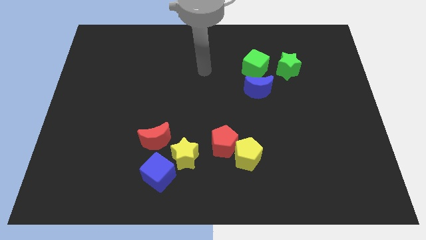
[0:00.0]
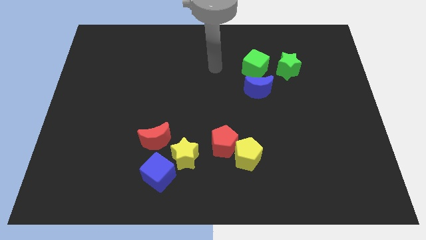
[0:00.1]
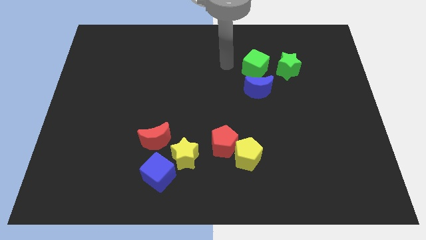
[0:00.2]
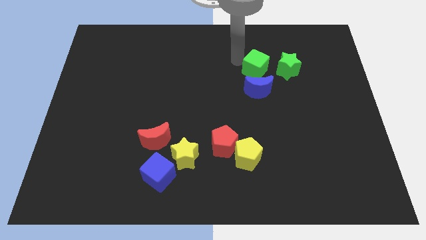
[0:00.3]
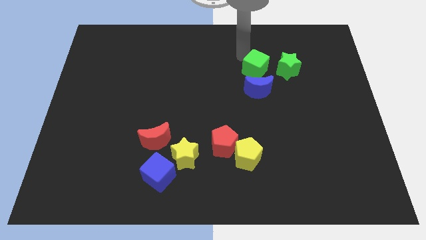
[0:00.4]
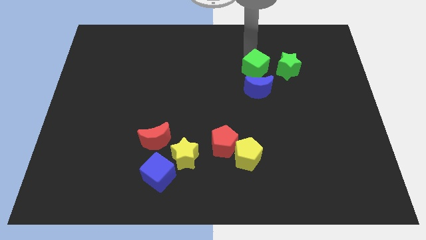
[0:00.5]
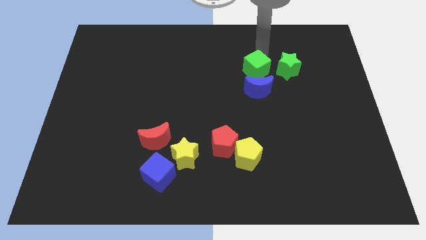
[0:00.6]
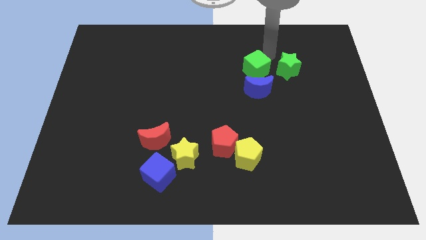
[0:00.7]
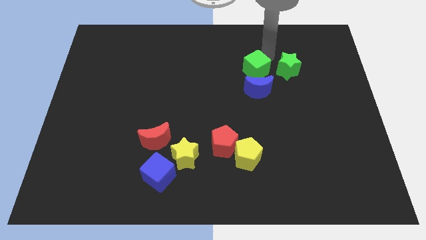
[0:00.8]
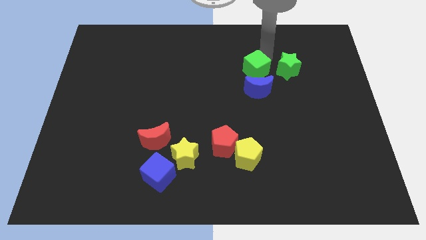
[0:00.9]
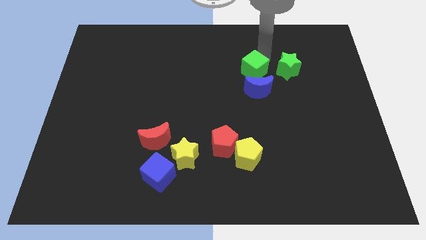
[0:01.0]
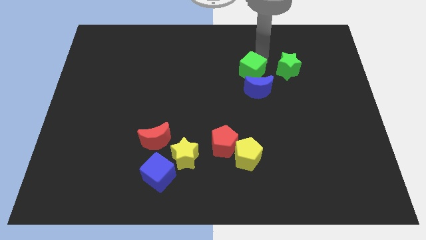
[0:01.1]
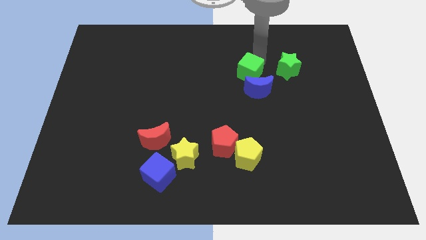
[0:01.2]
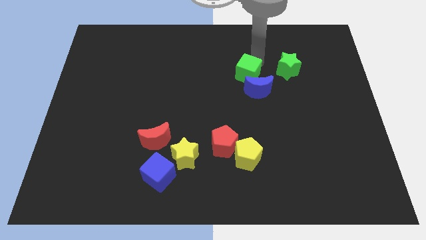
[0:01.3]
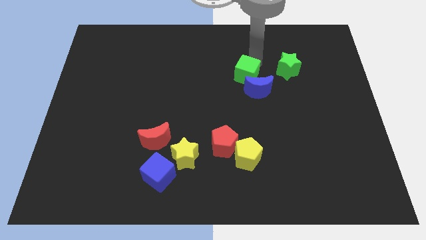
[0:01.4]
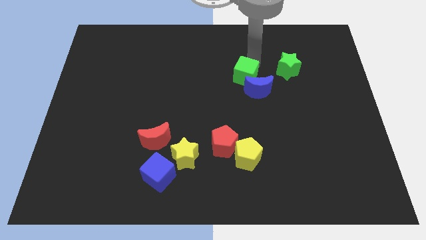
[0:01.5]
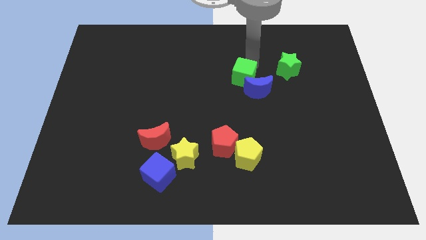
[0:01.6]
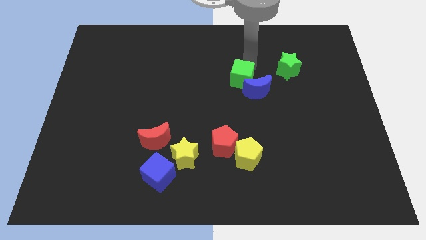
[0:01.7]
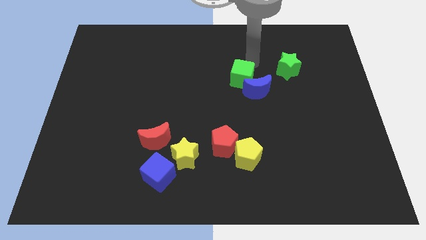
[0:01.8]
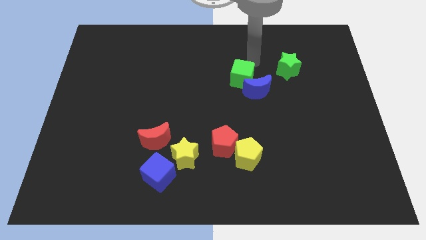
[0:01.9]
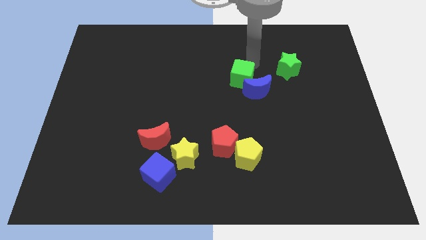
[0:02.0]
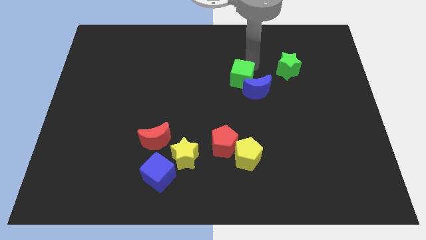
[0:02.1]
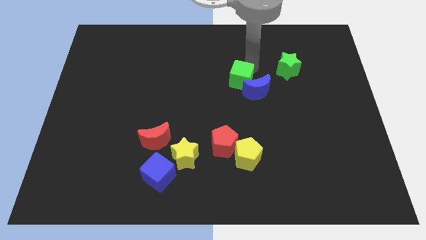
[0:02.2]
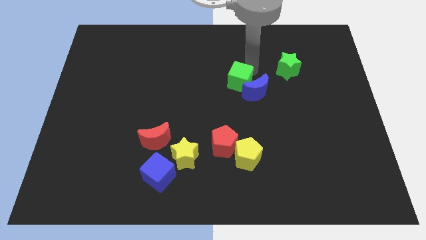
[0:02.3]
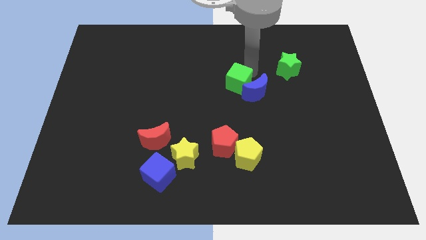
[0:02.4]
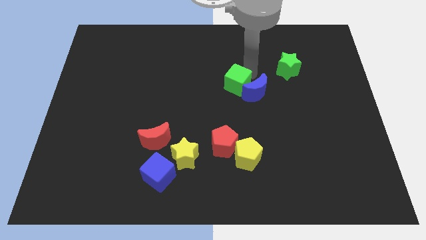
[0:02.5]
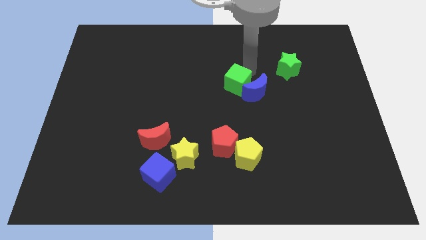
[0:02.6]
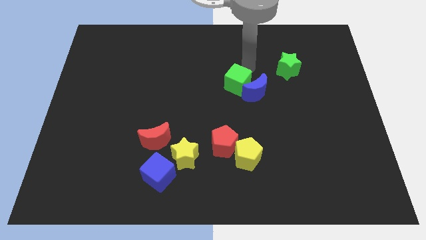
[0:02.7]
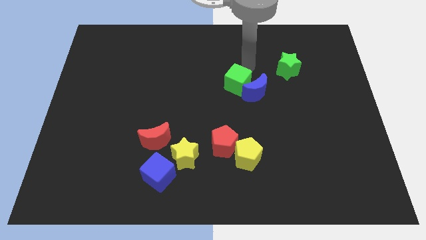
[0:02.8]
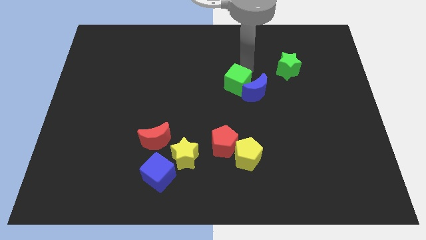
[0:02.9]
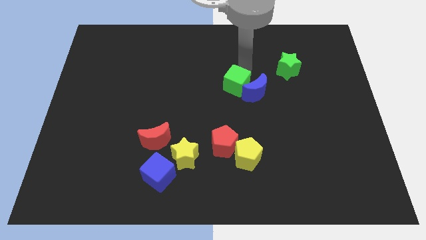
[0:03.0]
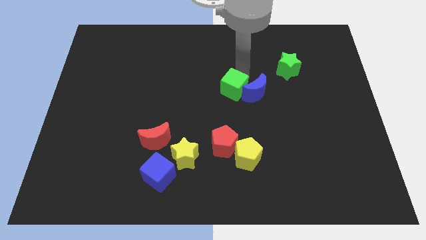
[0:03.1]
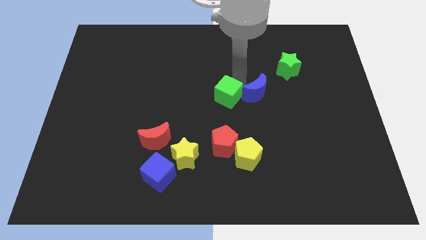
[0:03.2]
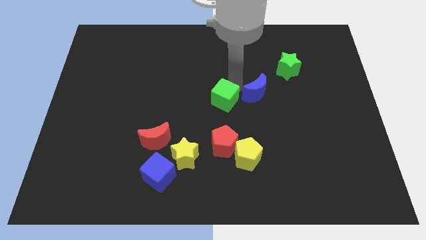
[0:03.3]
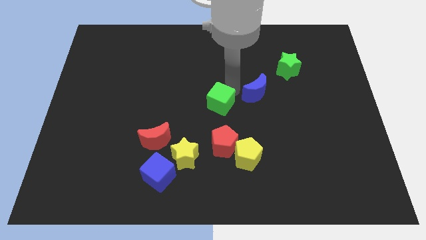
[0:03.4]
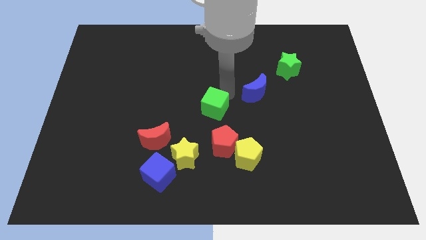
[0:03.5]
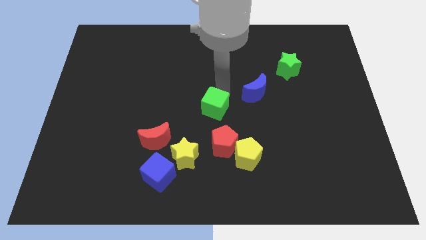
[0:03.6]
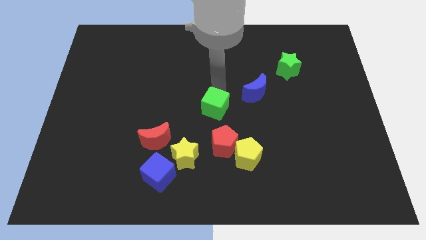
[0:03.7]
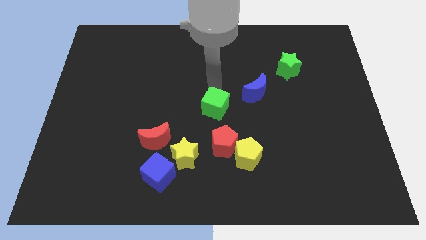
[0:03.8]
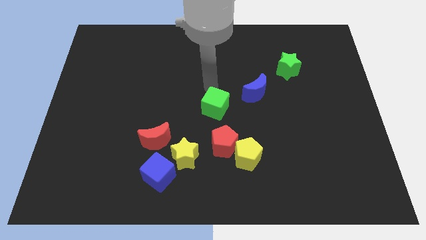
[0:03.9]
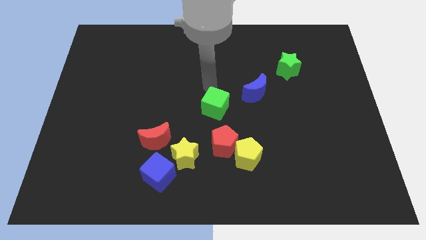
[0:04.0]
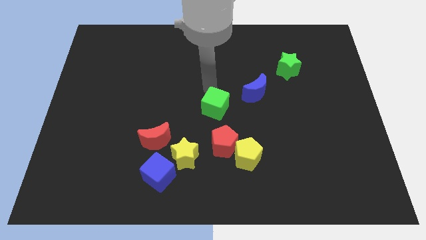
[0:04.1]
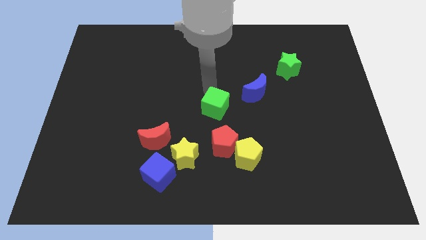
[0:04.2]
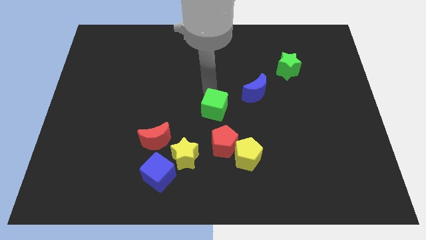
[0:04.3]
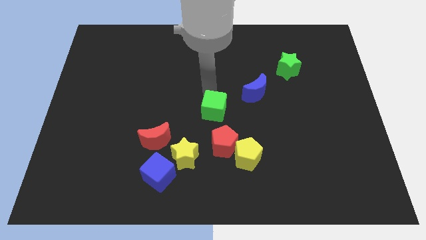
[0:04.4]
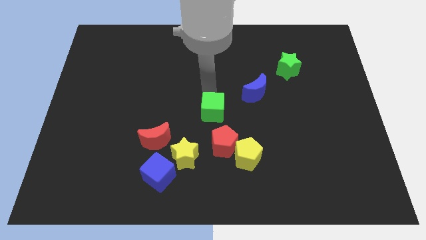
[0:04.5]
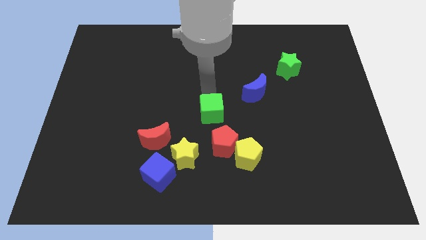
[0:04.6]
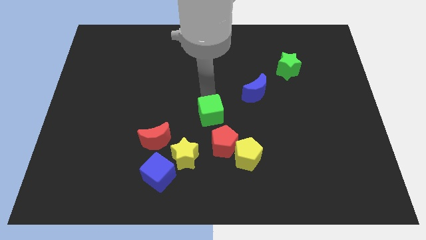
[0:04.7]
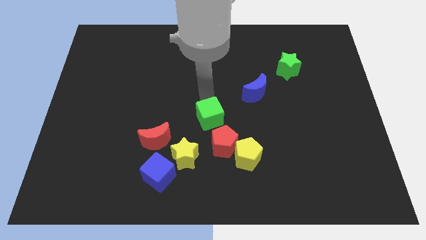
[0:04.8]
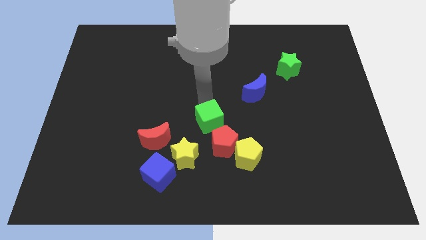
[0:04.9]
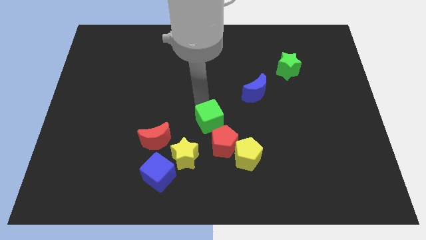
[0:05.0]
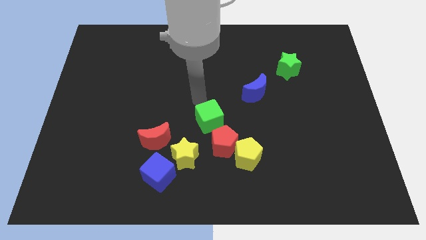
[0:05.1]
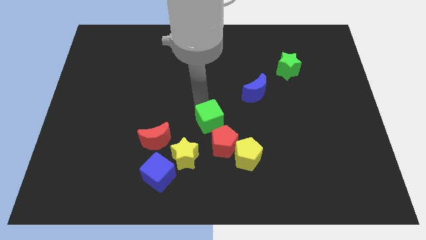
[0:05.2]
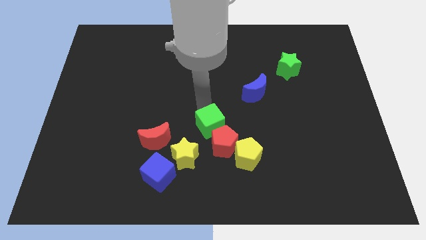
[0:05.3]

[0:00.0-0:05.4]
move the green cube towards the red pentagon

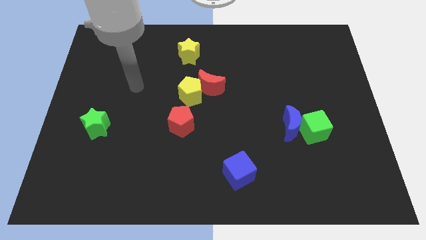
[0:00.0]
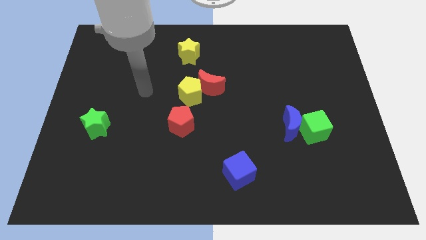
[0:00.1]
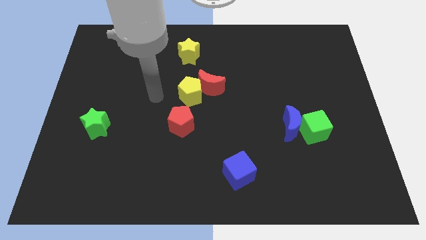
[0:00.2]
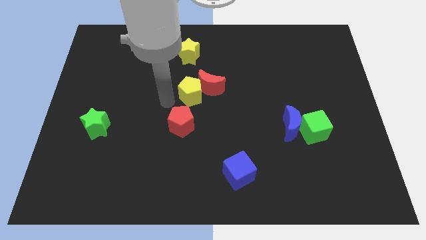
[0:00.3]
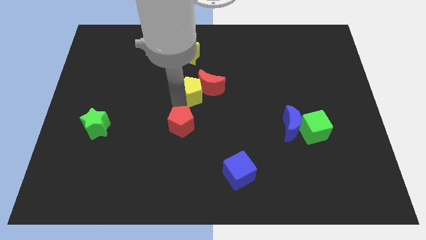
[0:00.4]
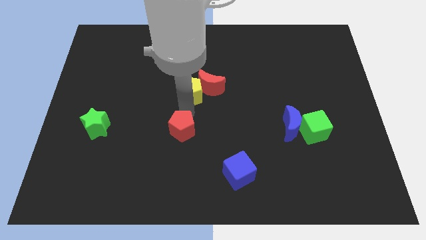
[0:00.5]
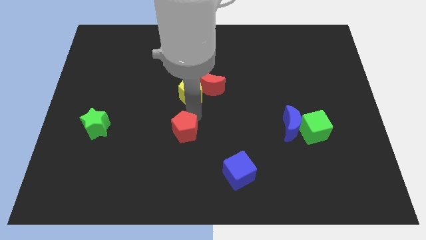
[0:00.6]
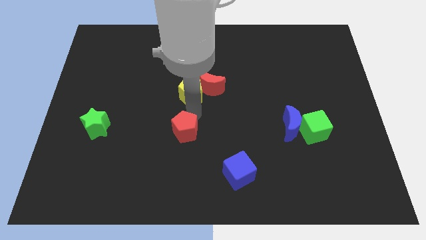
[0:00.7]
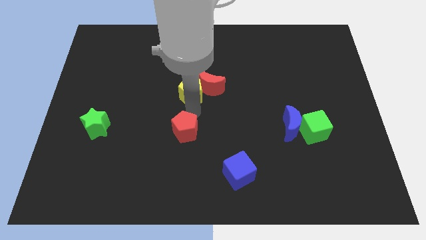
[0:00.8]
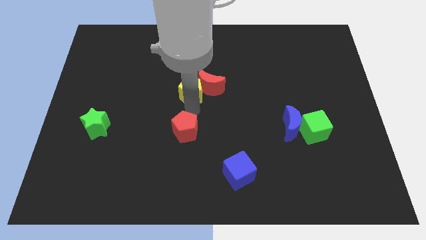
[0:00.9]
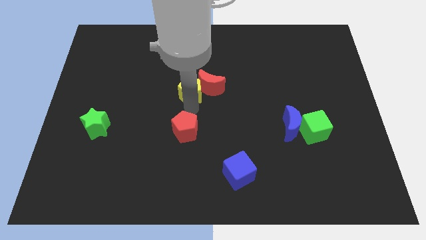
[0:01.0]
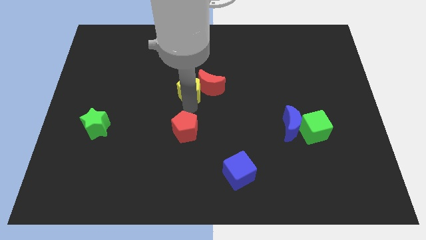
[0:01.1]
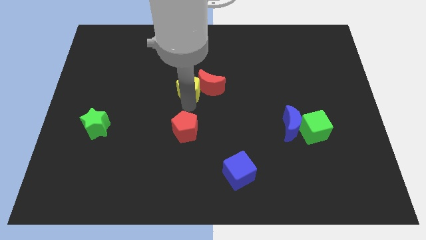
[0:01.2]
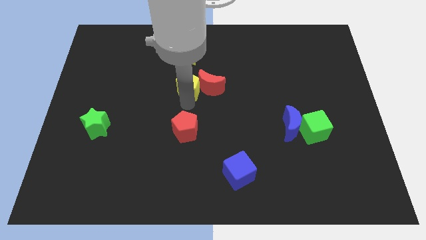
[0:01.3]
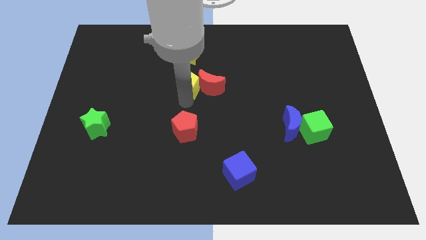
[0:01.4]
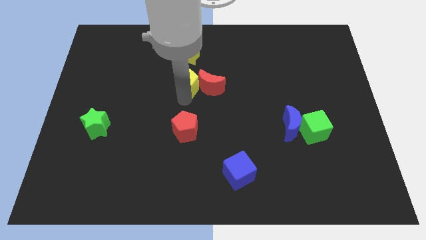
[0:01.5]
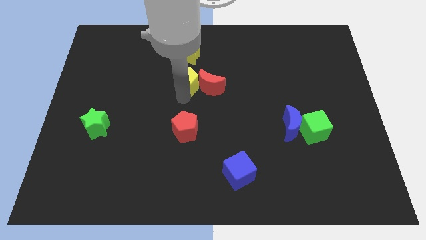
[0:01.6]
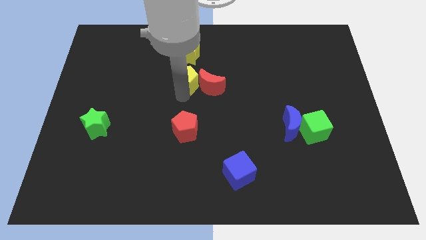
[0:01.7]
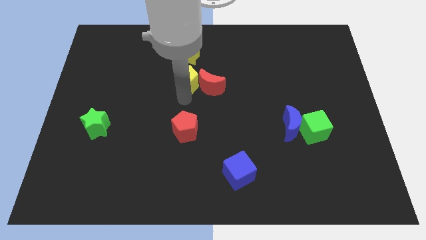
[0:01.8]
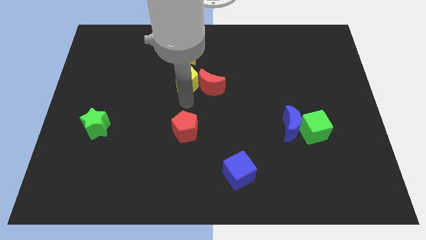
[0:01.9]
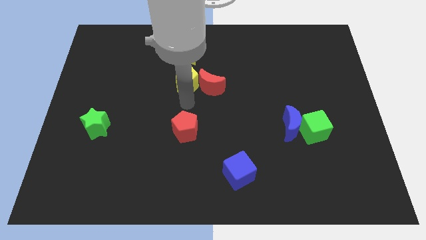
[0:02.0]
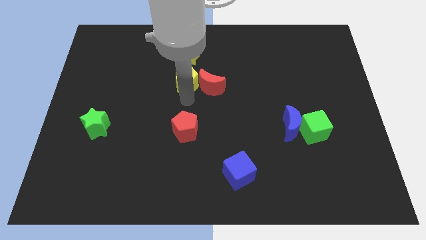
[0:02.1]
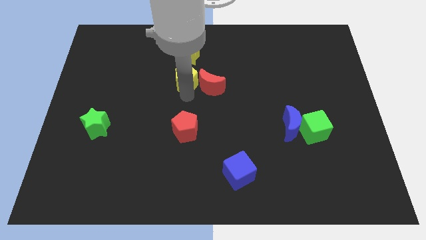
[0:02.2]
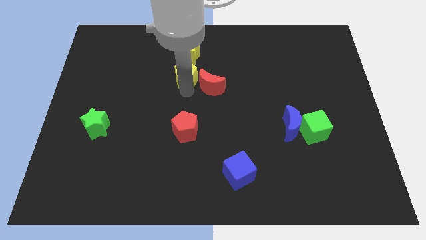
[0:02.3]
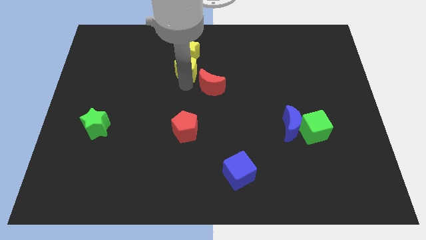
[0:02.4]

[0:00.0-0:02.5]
slide the yellow pentagon towards the yellow star
